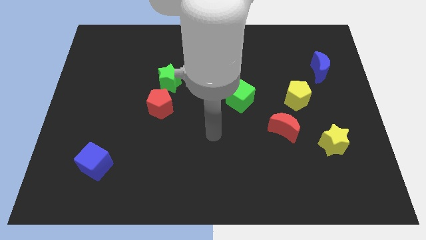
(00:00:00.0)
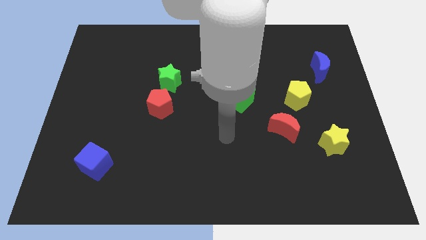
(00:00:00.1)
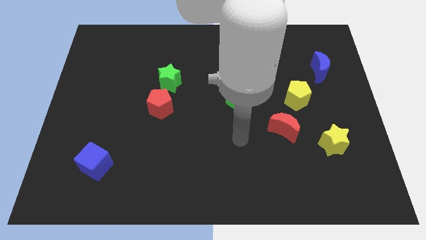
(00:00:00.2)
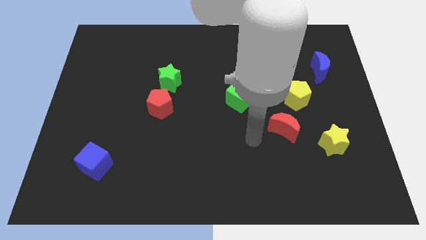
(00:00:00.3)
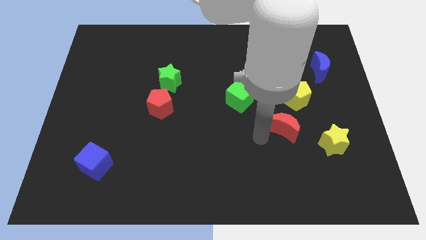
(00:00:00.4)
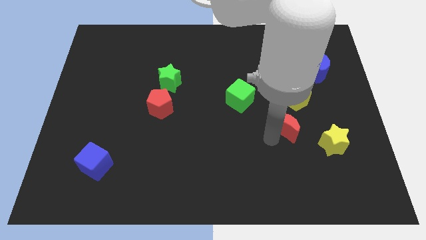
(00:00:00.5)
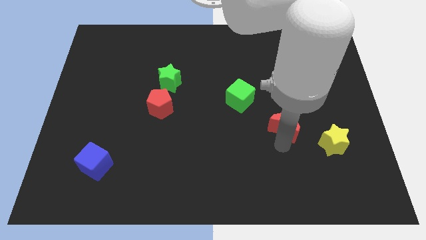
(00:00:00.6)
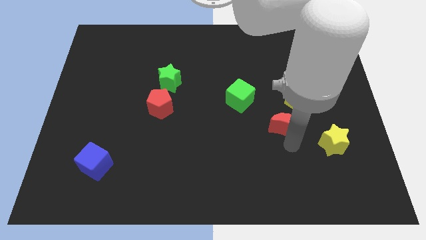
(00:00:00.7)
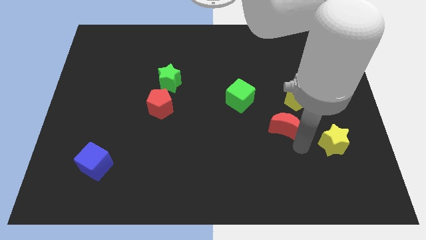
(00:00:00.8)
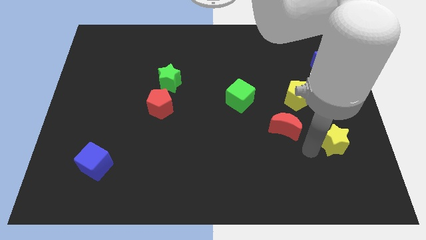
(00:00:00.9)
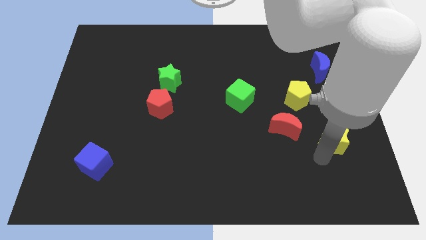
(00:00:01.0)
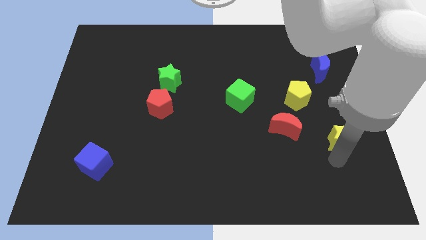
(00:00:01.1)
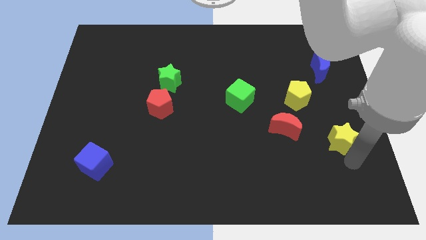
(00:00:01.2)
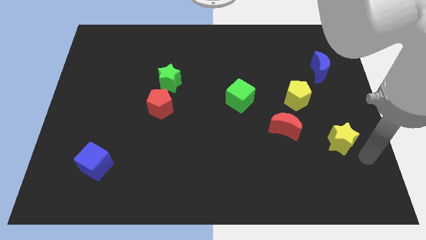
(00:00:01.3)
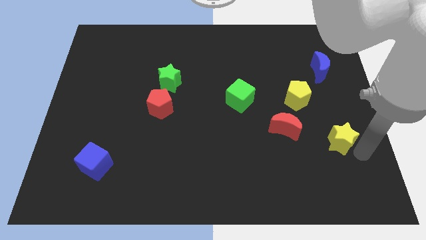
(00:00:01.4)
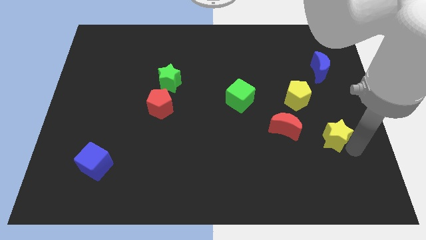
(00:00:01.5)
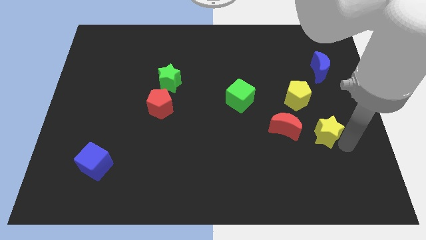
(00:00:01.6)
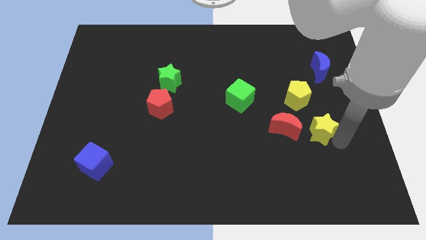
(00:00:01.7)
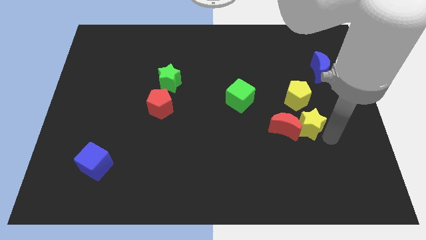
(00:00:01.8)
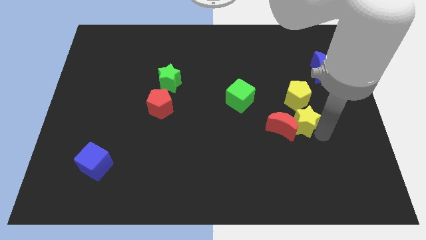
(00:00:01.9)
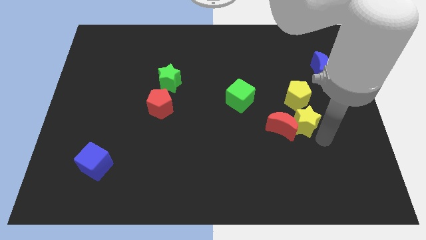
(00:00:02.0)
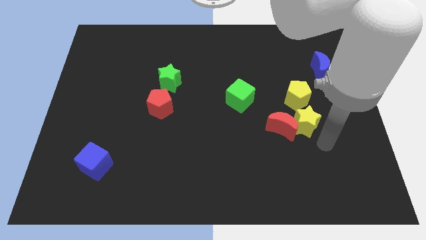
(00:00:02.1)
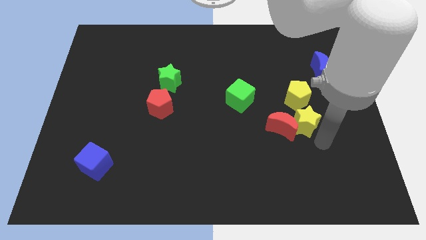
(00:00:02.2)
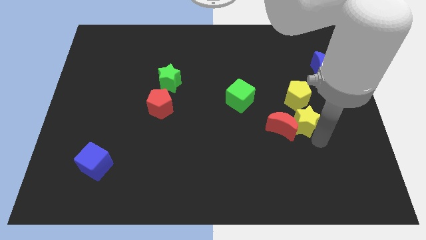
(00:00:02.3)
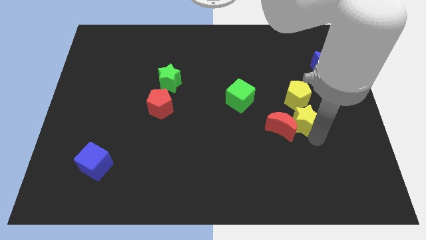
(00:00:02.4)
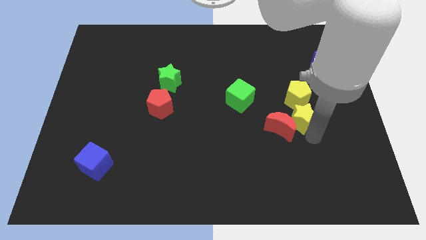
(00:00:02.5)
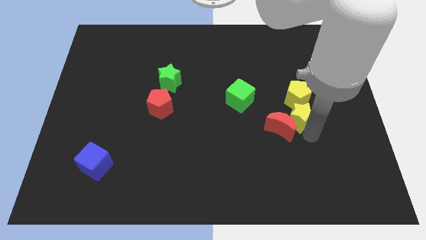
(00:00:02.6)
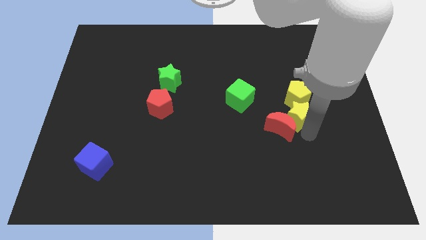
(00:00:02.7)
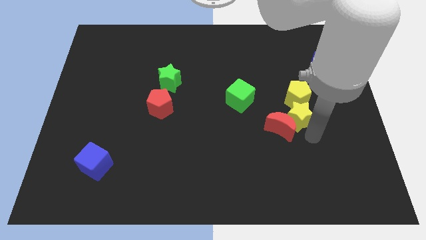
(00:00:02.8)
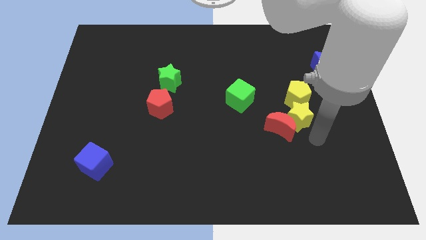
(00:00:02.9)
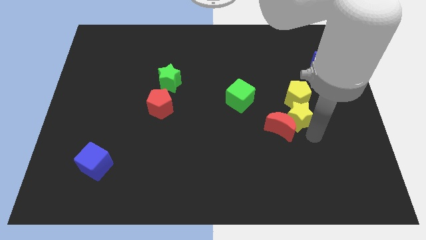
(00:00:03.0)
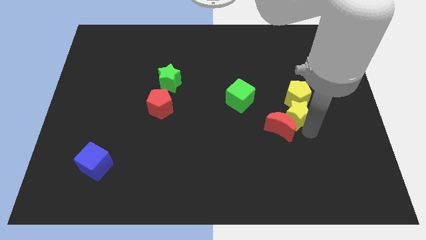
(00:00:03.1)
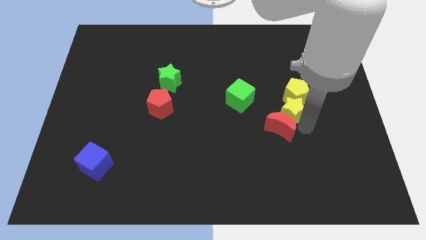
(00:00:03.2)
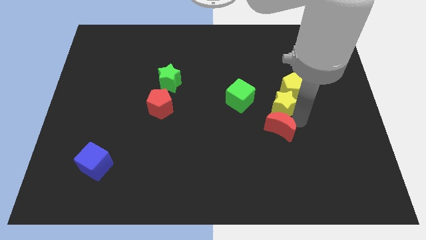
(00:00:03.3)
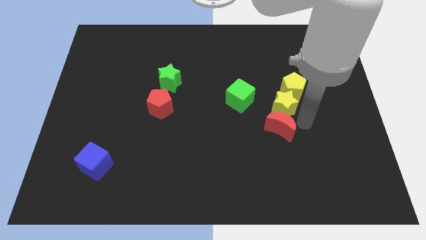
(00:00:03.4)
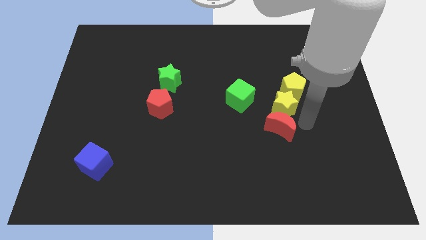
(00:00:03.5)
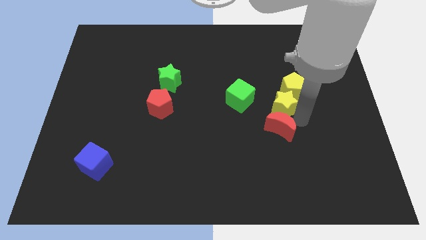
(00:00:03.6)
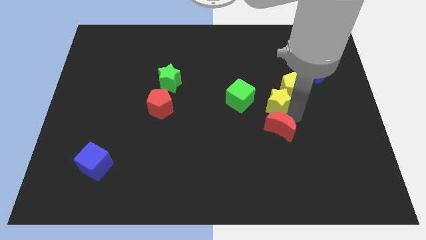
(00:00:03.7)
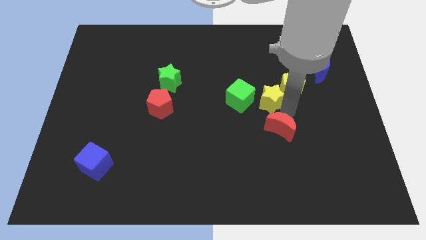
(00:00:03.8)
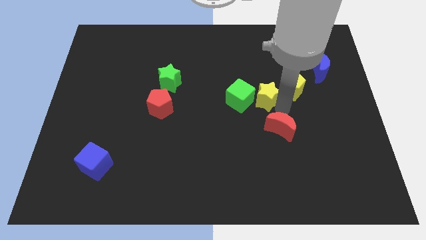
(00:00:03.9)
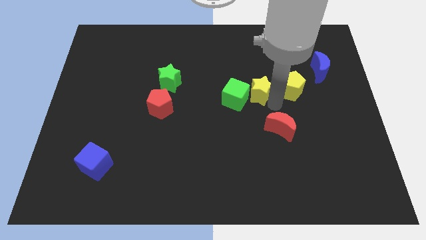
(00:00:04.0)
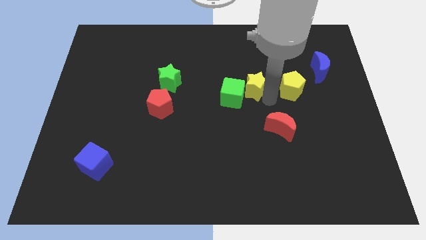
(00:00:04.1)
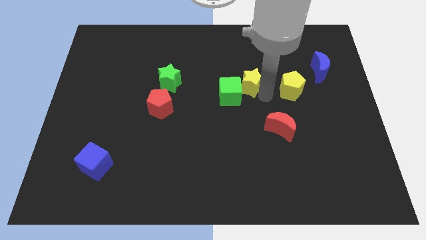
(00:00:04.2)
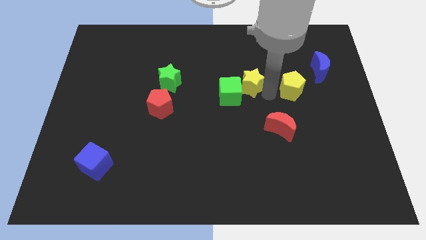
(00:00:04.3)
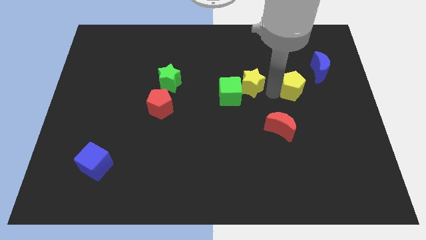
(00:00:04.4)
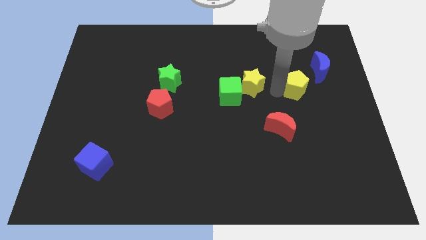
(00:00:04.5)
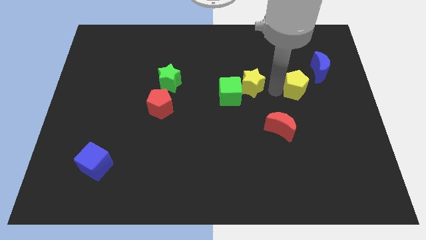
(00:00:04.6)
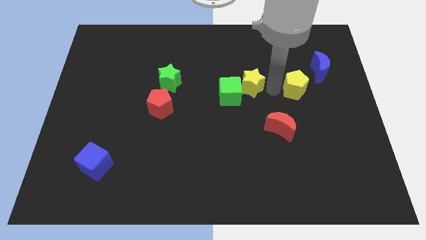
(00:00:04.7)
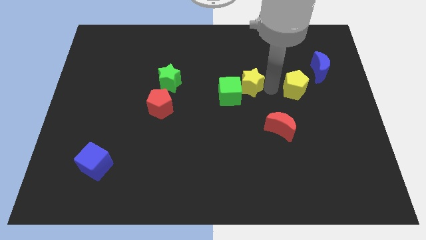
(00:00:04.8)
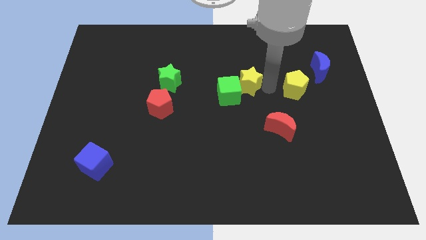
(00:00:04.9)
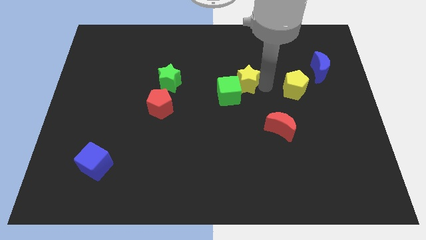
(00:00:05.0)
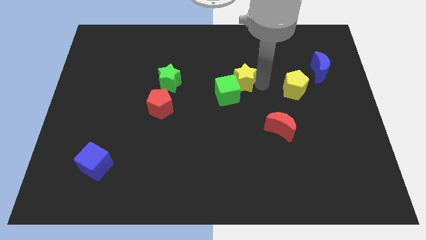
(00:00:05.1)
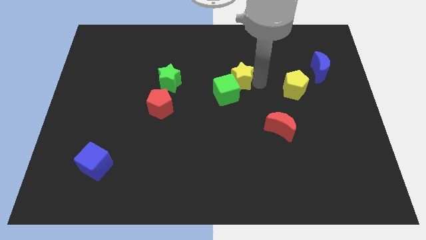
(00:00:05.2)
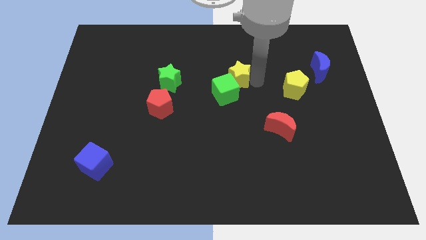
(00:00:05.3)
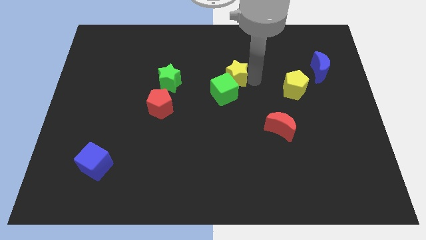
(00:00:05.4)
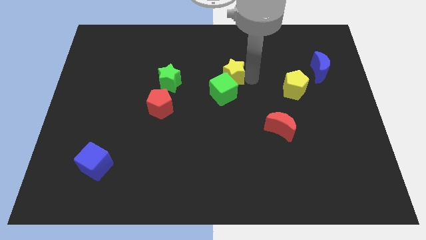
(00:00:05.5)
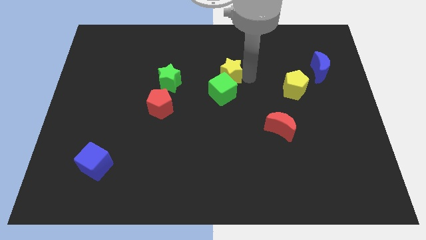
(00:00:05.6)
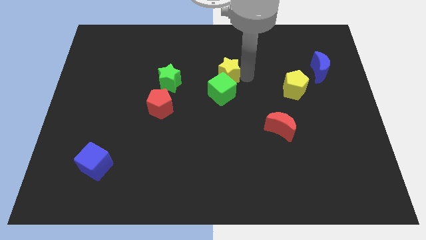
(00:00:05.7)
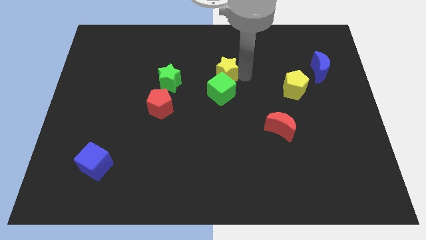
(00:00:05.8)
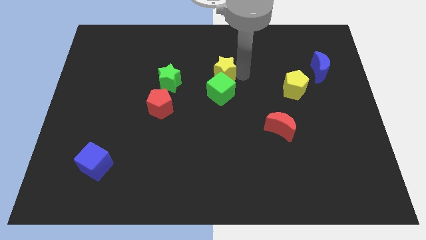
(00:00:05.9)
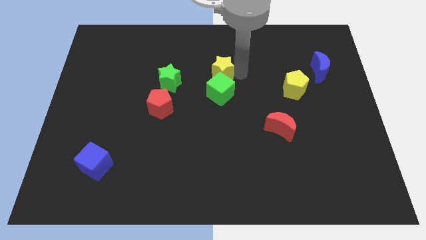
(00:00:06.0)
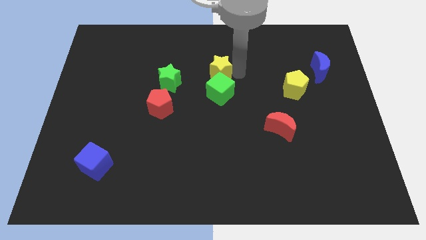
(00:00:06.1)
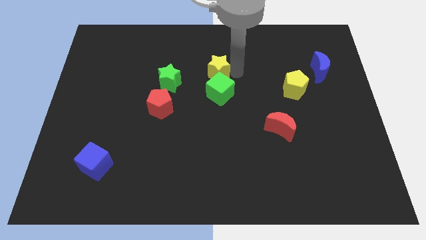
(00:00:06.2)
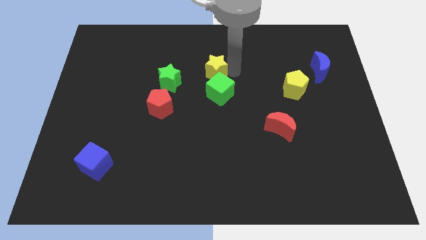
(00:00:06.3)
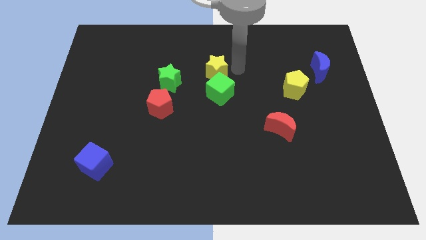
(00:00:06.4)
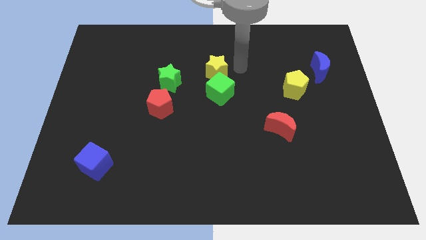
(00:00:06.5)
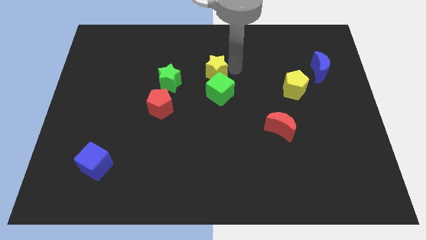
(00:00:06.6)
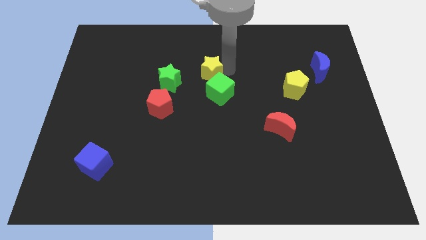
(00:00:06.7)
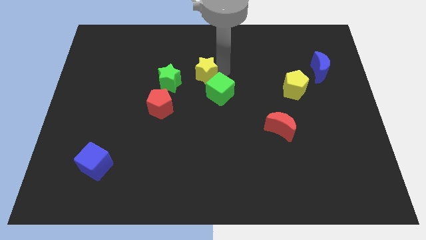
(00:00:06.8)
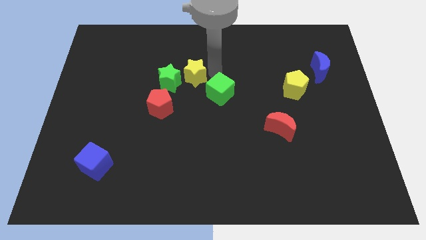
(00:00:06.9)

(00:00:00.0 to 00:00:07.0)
put the yellow star towards the green star

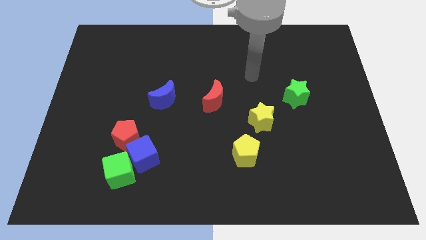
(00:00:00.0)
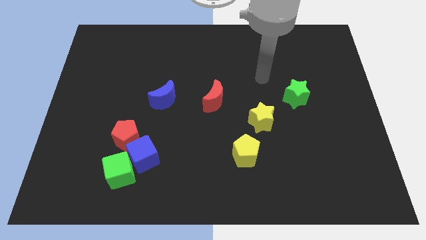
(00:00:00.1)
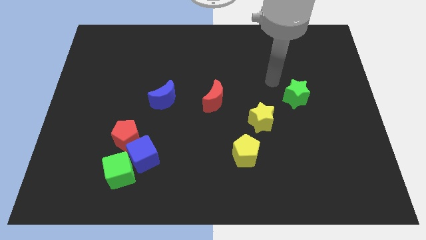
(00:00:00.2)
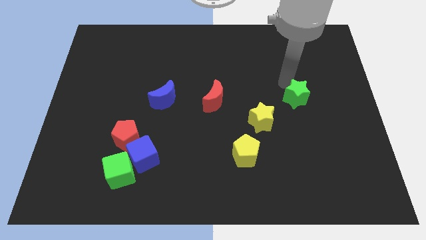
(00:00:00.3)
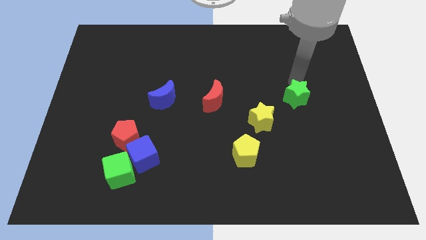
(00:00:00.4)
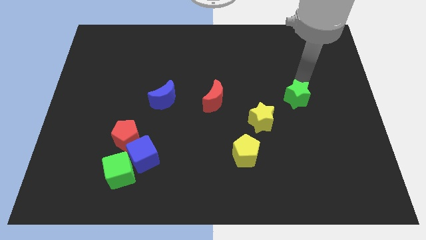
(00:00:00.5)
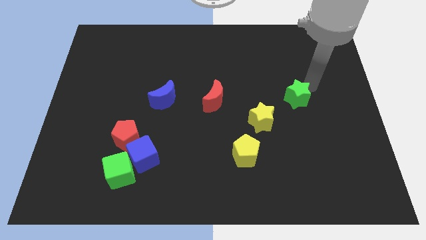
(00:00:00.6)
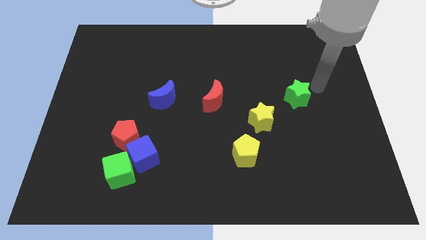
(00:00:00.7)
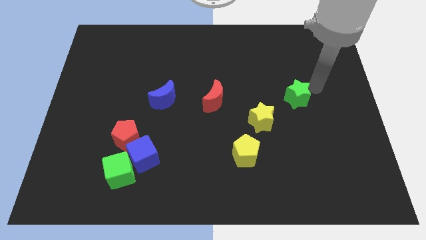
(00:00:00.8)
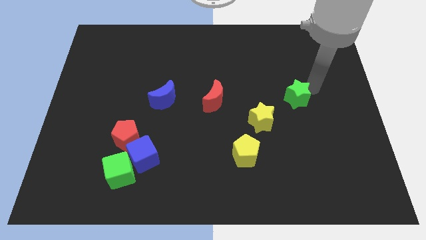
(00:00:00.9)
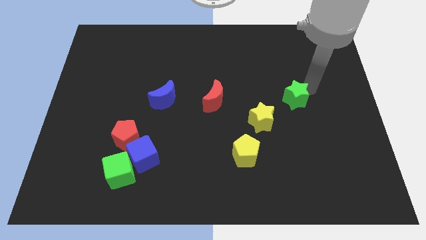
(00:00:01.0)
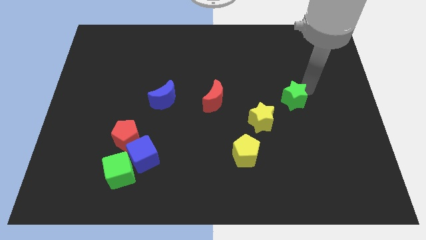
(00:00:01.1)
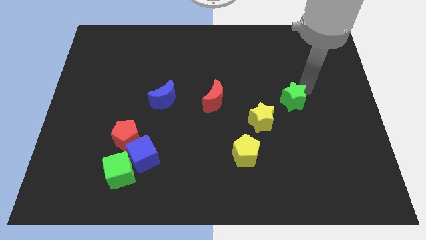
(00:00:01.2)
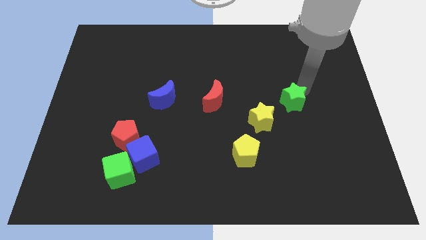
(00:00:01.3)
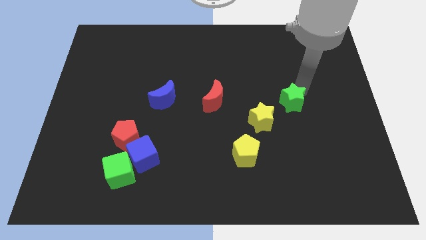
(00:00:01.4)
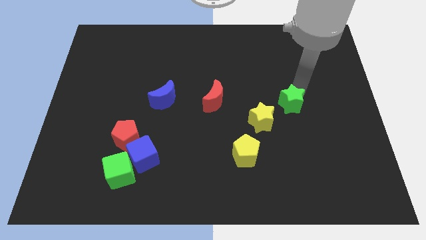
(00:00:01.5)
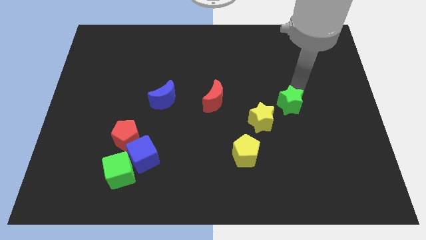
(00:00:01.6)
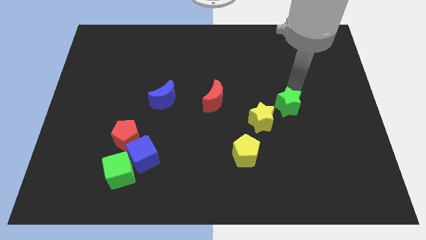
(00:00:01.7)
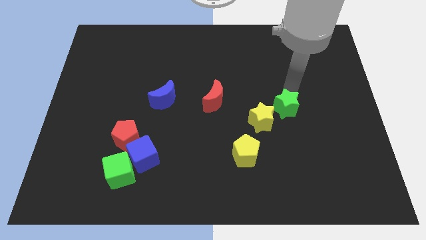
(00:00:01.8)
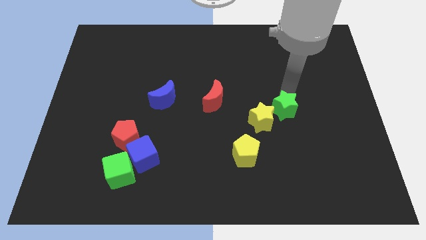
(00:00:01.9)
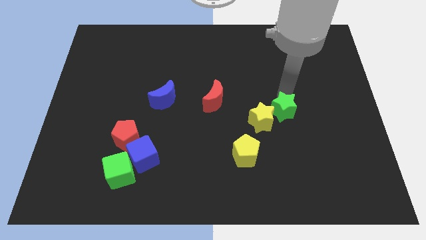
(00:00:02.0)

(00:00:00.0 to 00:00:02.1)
put the green star next to the yellow star
